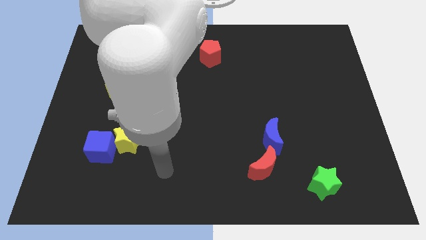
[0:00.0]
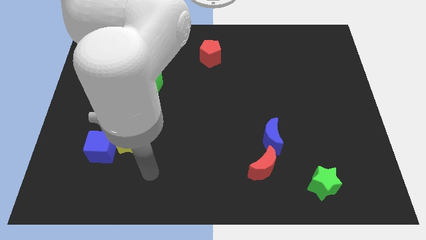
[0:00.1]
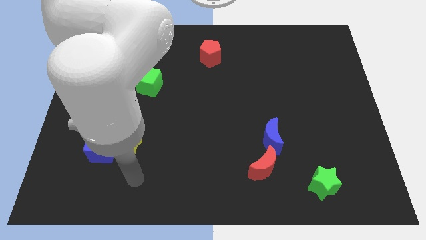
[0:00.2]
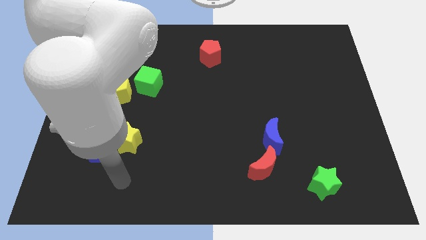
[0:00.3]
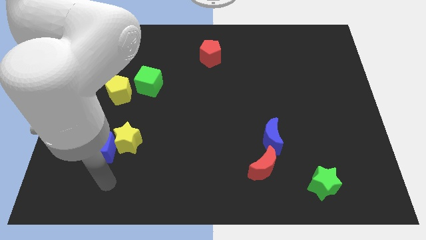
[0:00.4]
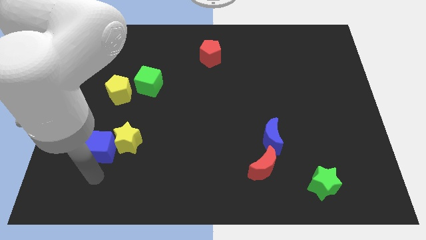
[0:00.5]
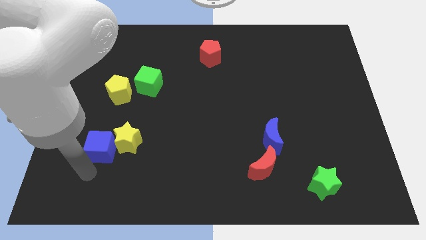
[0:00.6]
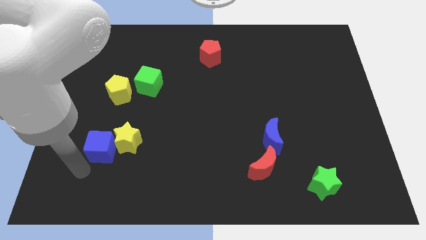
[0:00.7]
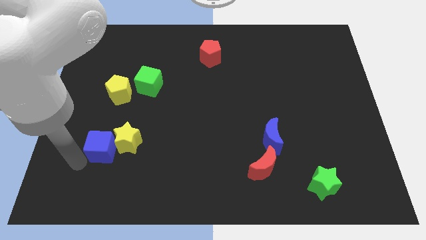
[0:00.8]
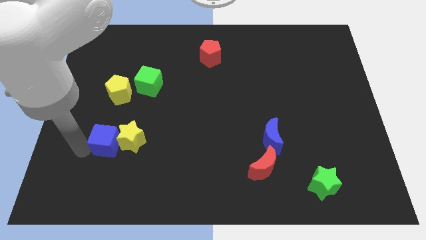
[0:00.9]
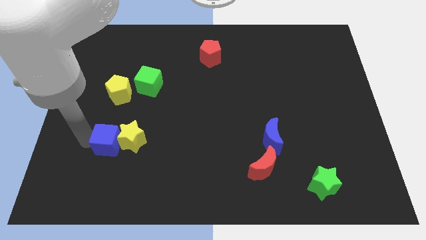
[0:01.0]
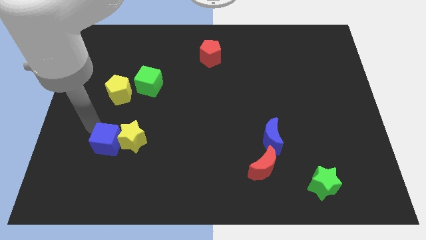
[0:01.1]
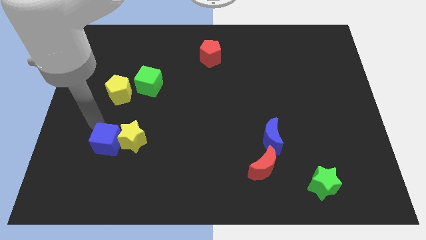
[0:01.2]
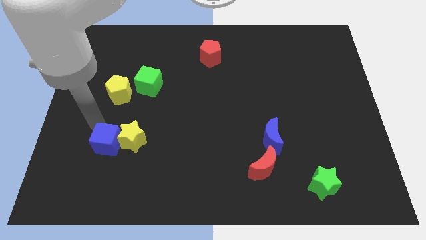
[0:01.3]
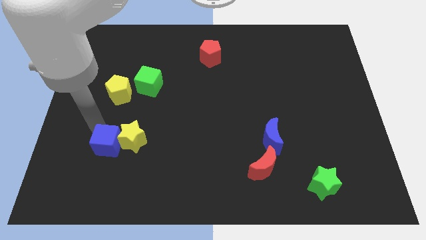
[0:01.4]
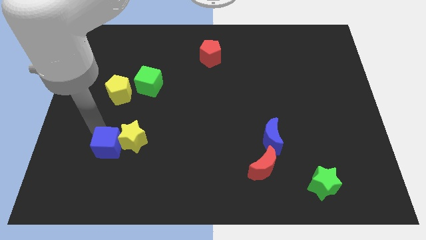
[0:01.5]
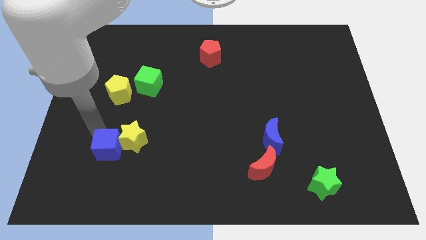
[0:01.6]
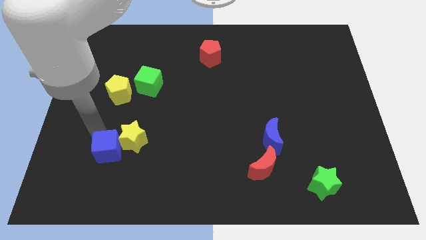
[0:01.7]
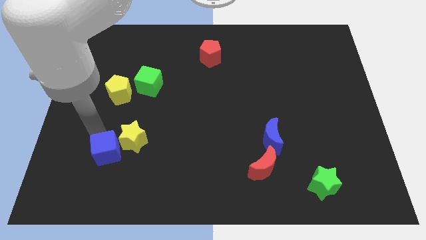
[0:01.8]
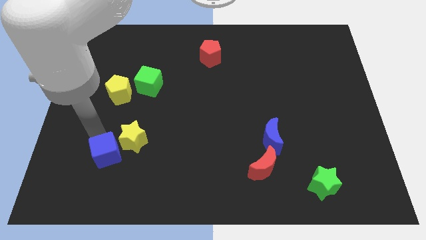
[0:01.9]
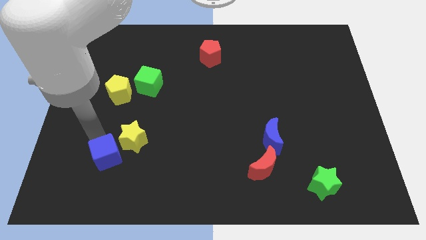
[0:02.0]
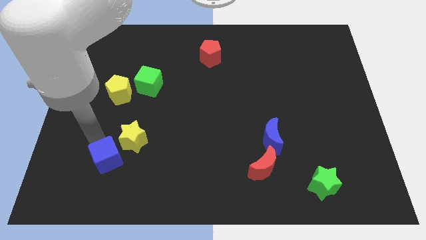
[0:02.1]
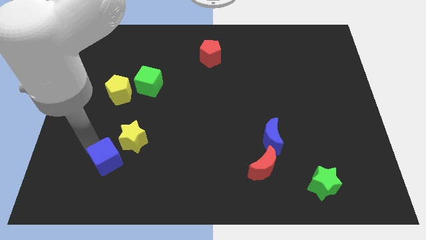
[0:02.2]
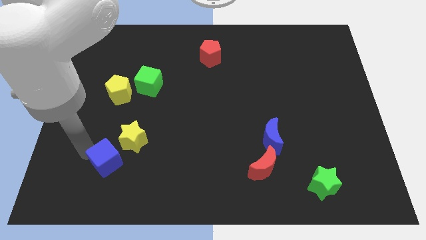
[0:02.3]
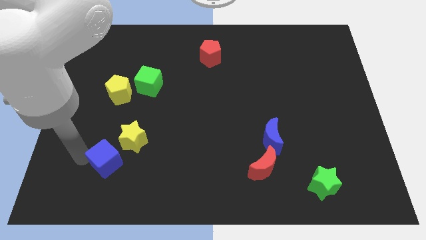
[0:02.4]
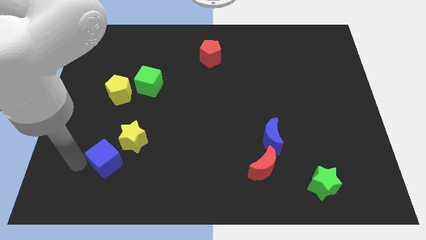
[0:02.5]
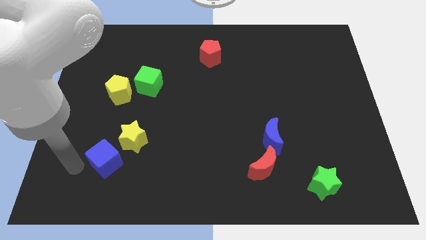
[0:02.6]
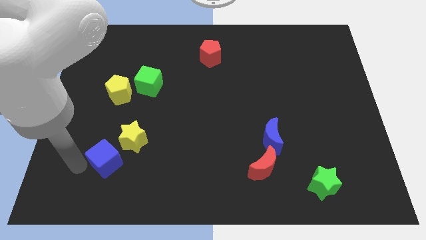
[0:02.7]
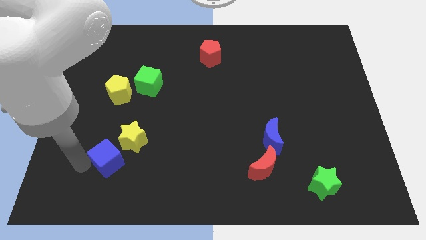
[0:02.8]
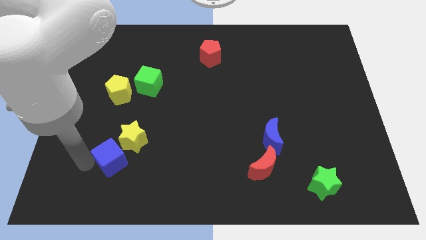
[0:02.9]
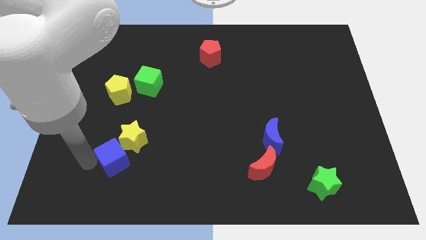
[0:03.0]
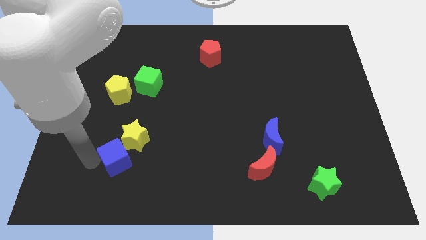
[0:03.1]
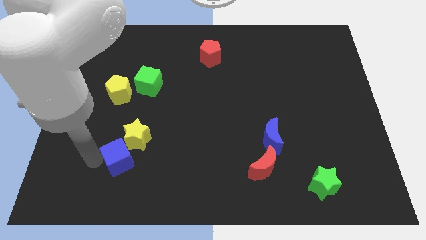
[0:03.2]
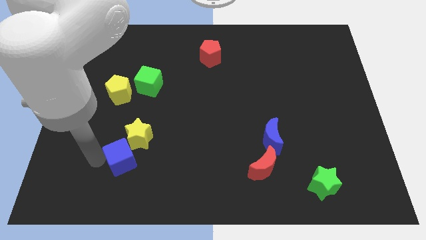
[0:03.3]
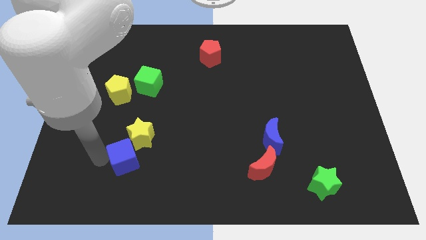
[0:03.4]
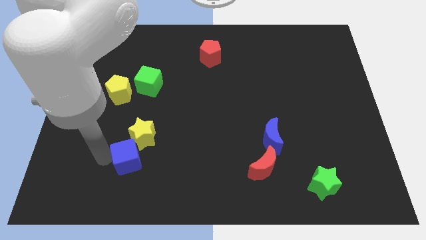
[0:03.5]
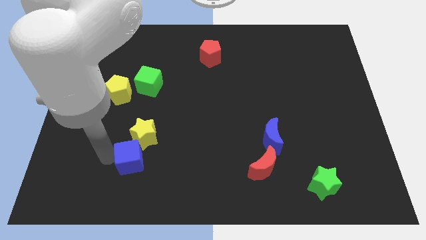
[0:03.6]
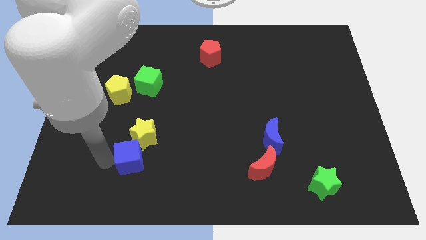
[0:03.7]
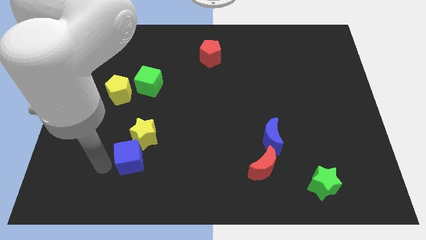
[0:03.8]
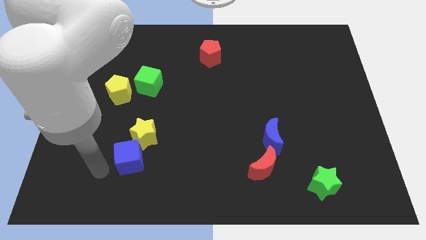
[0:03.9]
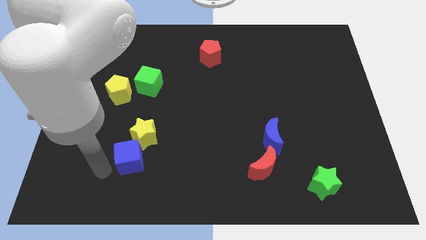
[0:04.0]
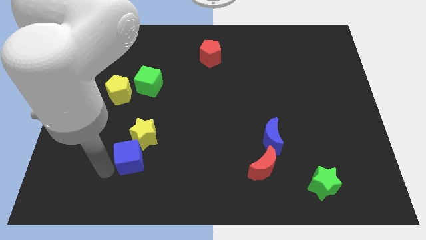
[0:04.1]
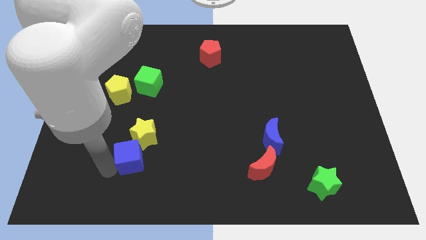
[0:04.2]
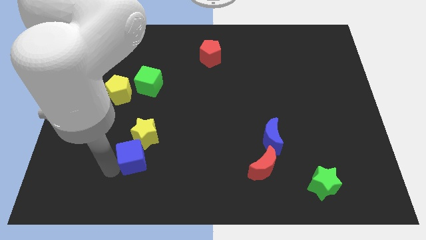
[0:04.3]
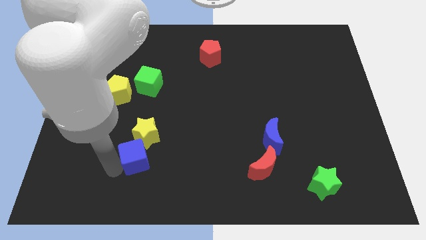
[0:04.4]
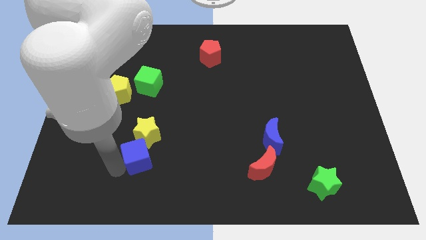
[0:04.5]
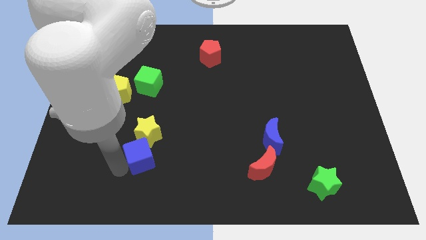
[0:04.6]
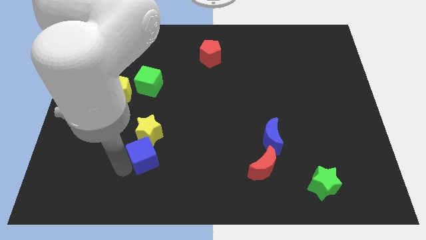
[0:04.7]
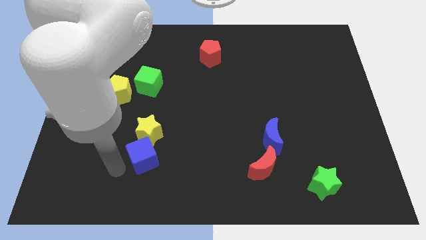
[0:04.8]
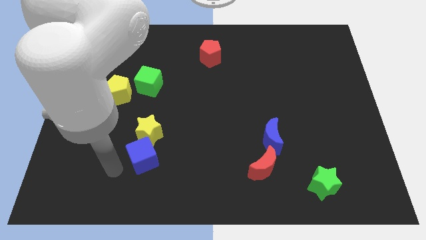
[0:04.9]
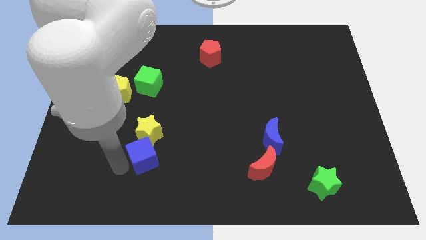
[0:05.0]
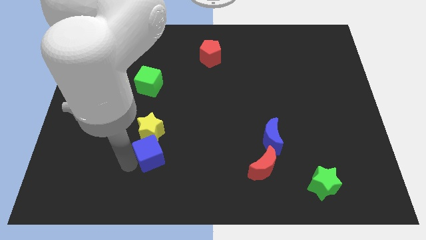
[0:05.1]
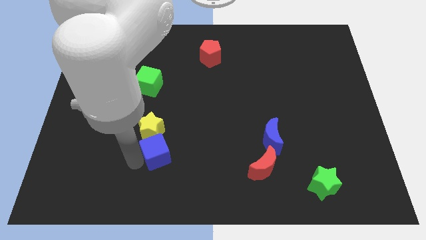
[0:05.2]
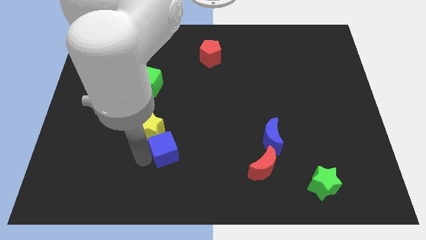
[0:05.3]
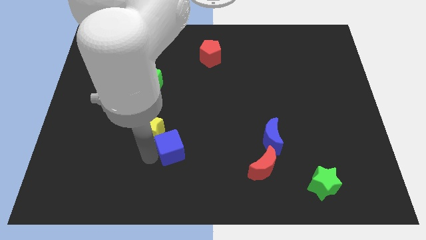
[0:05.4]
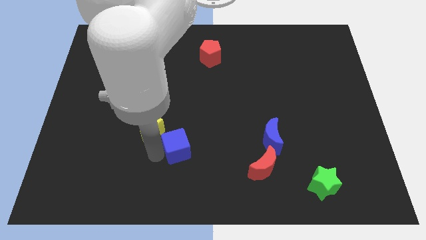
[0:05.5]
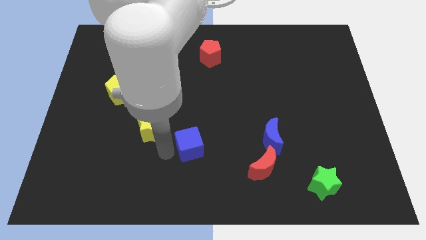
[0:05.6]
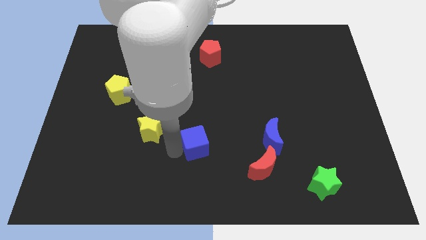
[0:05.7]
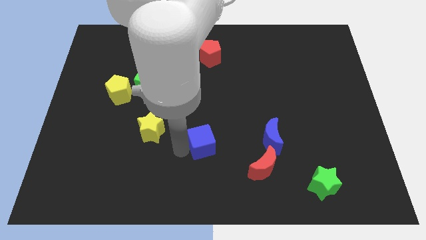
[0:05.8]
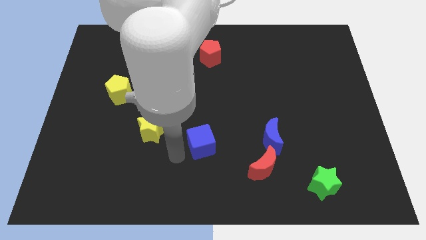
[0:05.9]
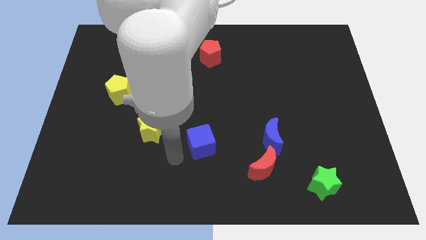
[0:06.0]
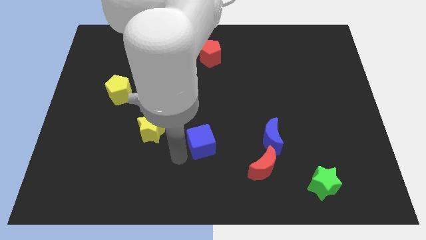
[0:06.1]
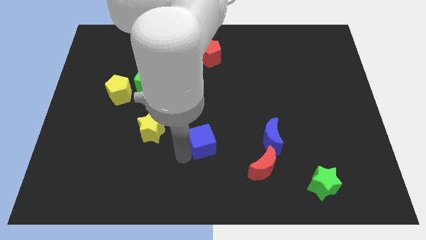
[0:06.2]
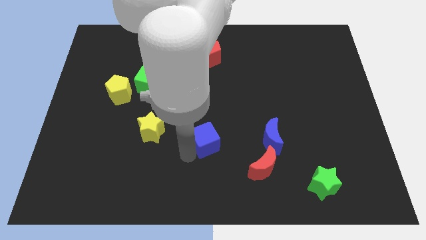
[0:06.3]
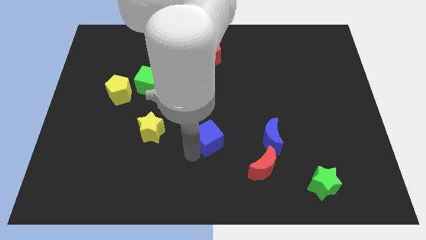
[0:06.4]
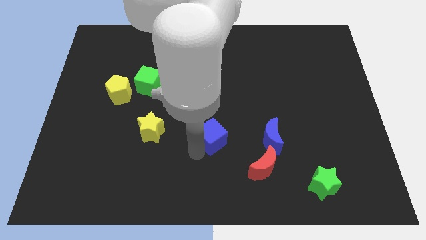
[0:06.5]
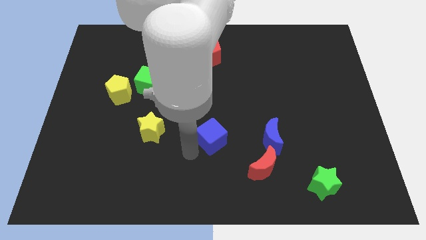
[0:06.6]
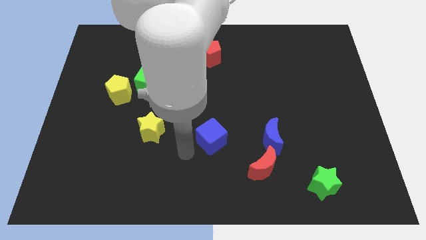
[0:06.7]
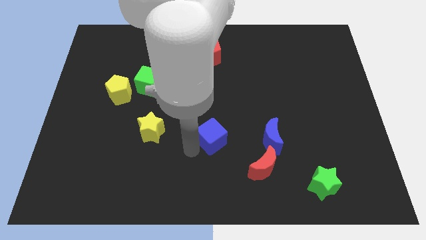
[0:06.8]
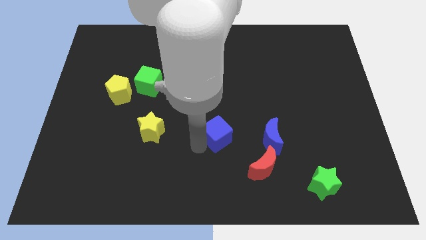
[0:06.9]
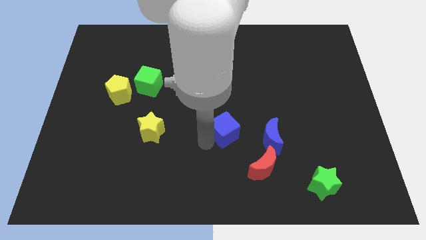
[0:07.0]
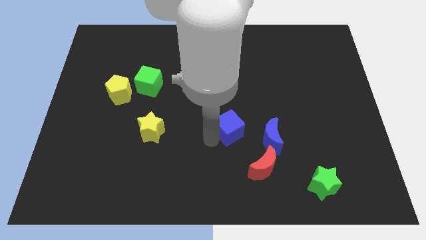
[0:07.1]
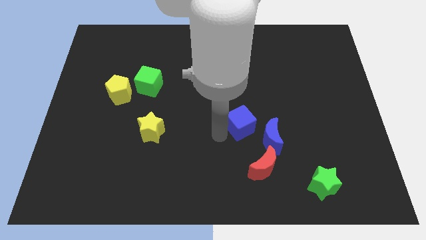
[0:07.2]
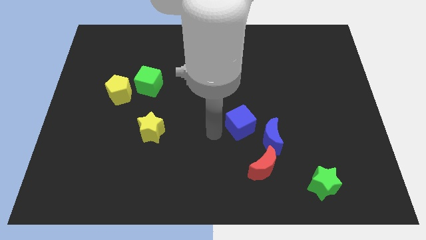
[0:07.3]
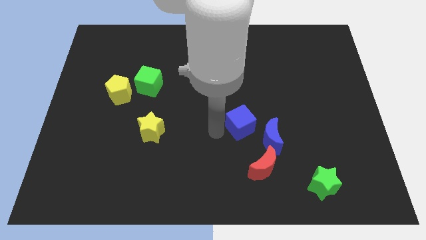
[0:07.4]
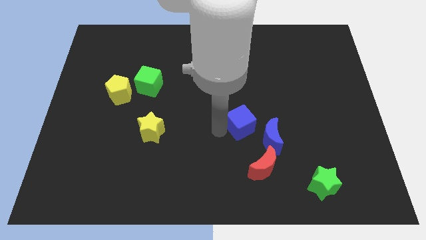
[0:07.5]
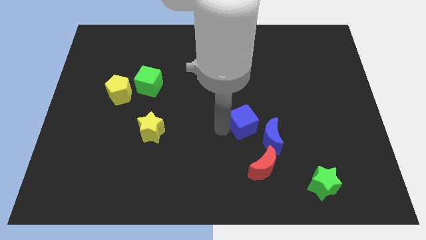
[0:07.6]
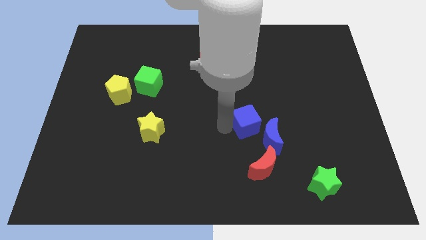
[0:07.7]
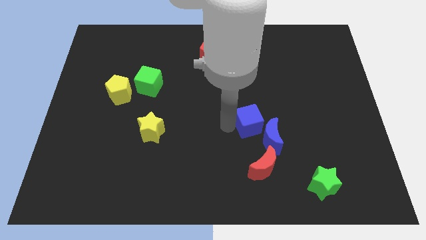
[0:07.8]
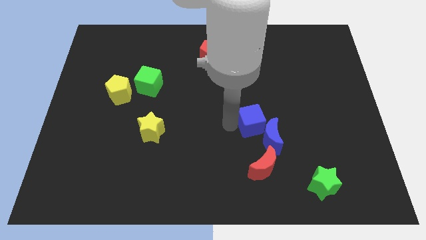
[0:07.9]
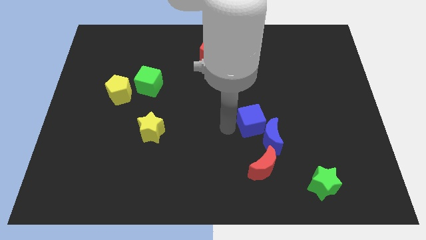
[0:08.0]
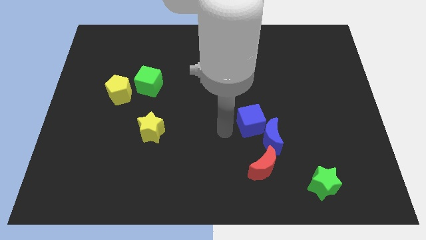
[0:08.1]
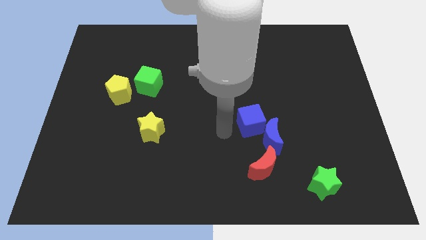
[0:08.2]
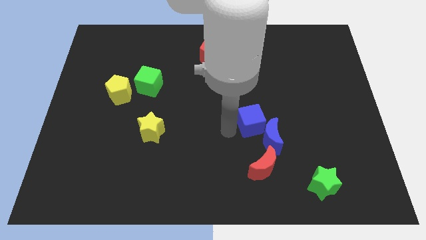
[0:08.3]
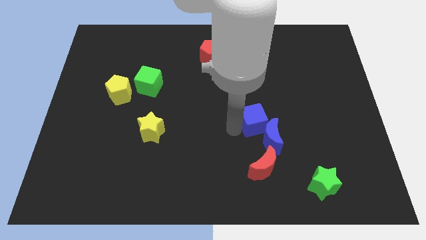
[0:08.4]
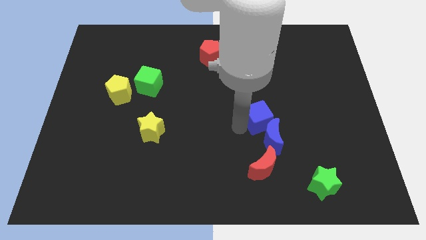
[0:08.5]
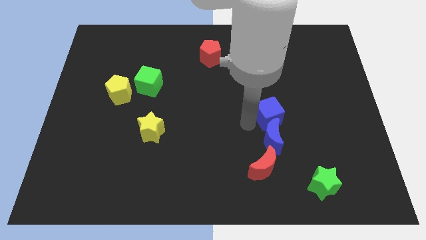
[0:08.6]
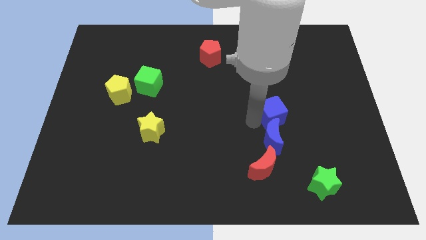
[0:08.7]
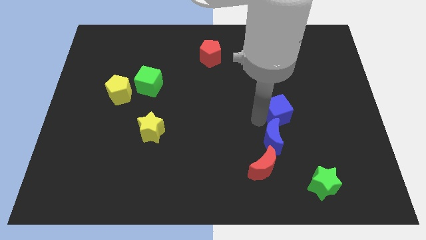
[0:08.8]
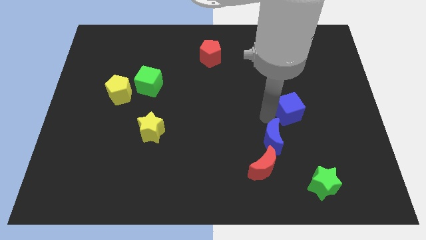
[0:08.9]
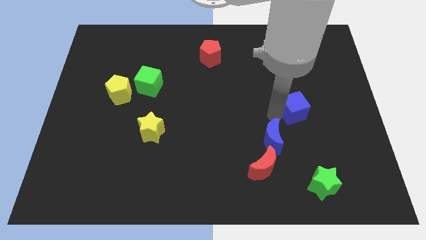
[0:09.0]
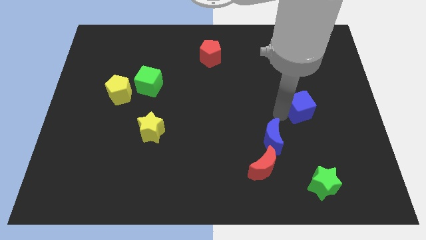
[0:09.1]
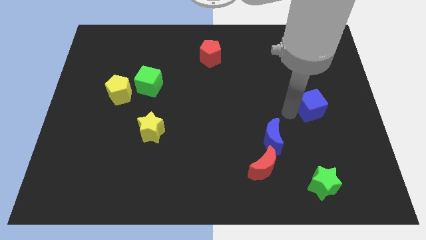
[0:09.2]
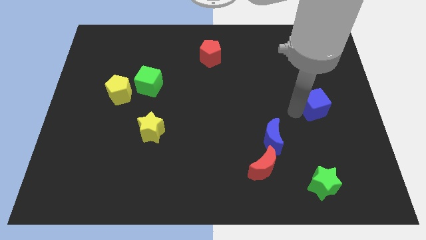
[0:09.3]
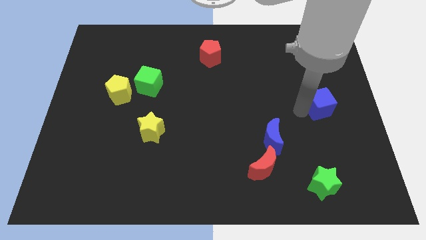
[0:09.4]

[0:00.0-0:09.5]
put the blue cube to the center right
